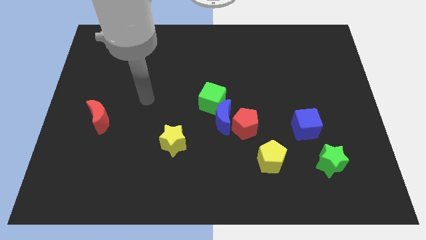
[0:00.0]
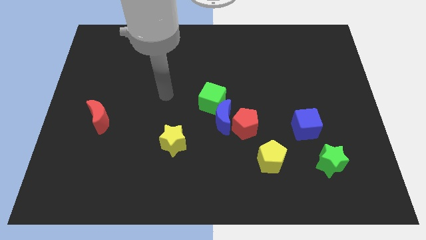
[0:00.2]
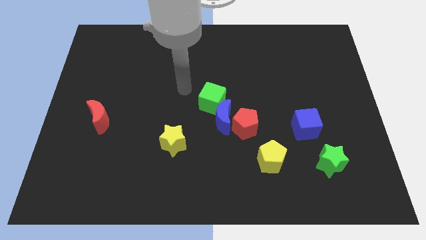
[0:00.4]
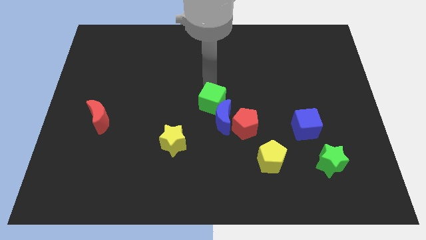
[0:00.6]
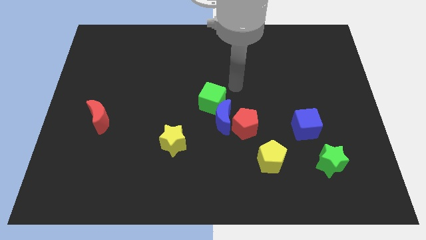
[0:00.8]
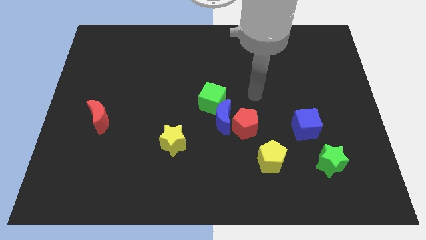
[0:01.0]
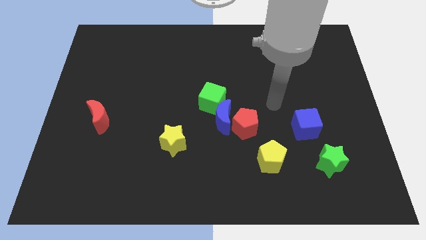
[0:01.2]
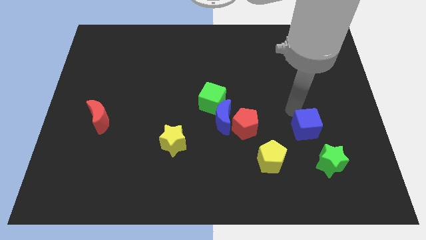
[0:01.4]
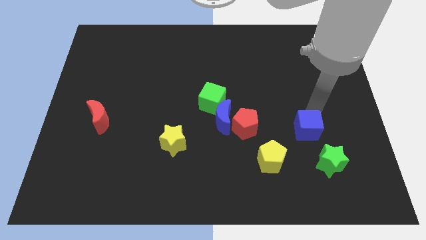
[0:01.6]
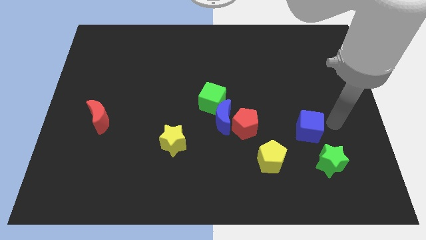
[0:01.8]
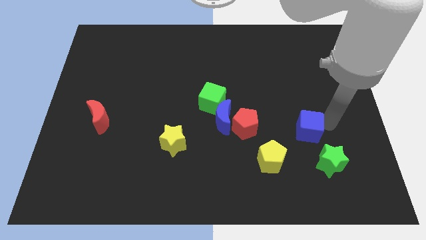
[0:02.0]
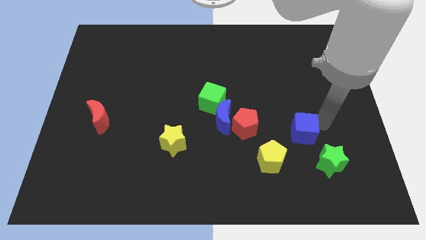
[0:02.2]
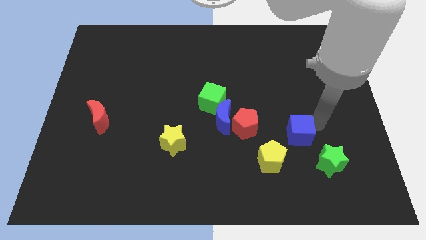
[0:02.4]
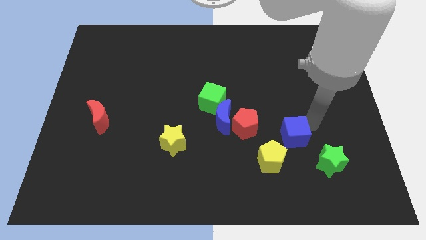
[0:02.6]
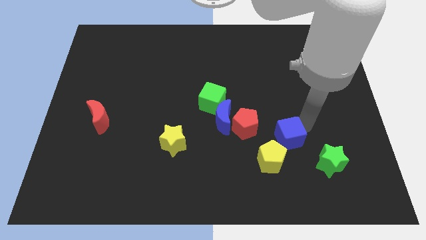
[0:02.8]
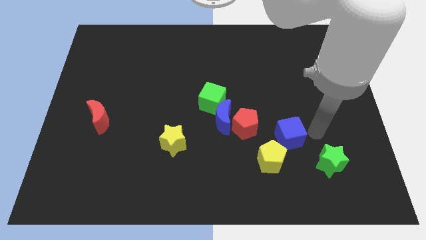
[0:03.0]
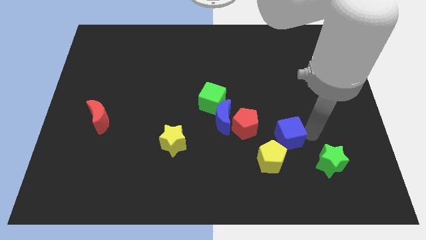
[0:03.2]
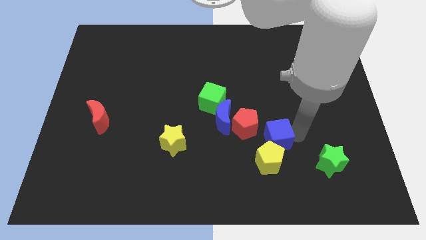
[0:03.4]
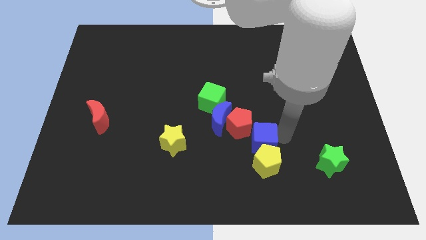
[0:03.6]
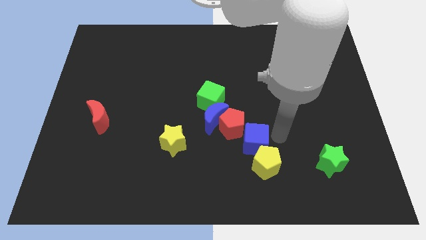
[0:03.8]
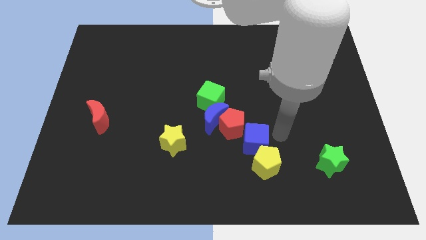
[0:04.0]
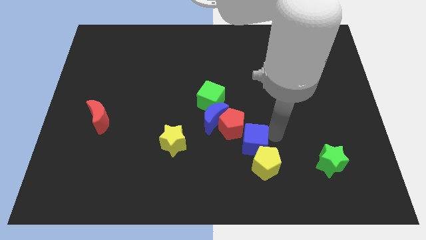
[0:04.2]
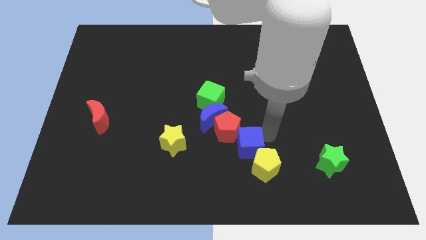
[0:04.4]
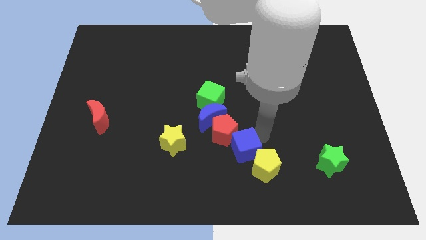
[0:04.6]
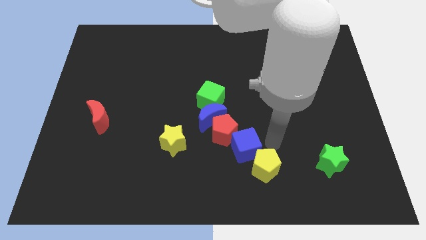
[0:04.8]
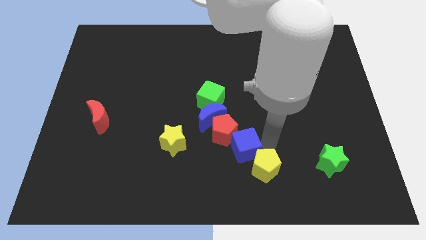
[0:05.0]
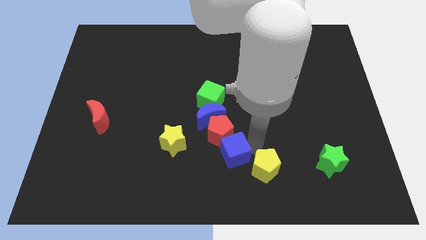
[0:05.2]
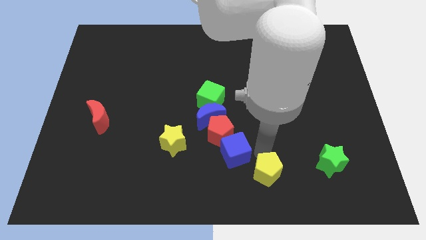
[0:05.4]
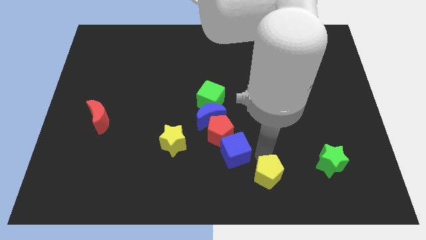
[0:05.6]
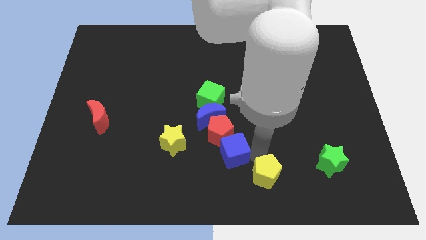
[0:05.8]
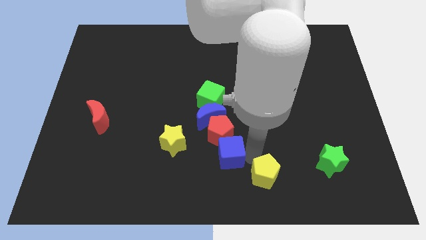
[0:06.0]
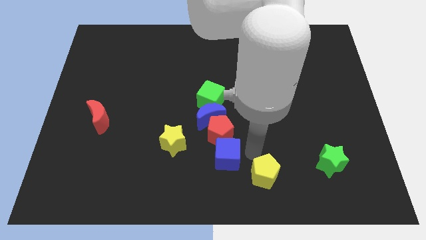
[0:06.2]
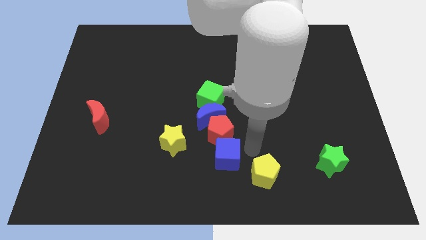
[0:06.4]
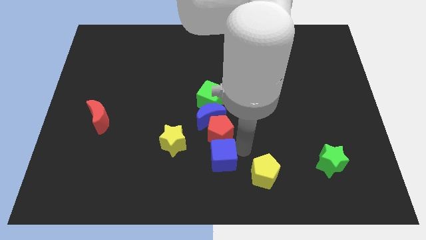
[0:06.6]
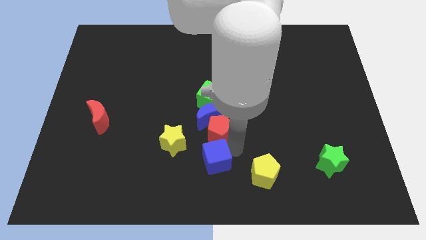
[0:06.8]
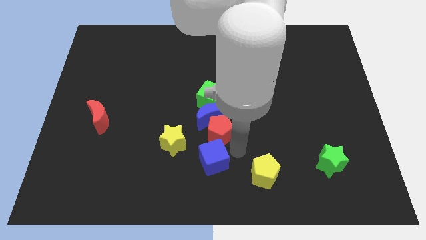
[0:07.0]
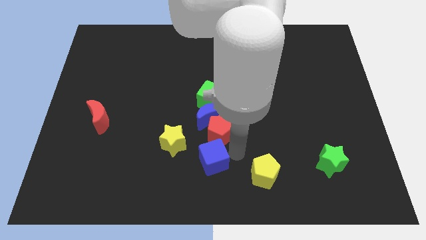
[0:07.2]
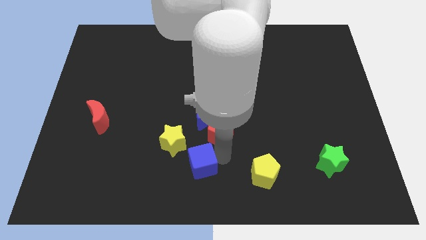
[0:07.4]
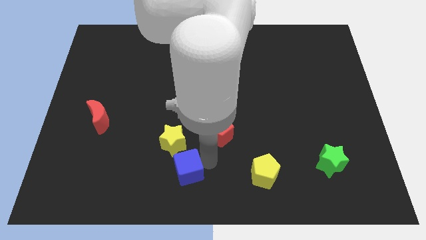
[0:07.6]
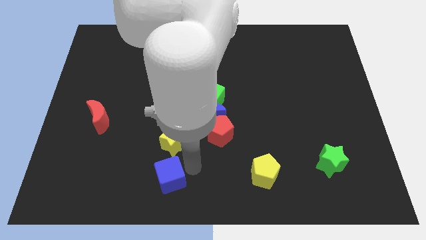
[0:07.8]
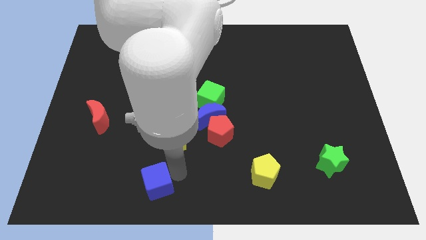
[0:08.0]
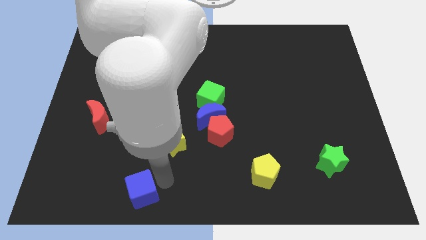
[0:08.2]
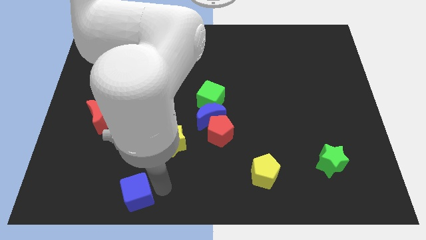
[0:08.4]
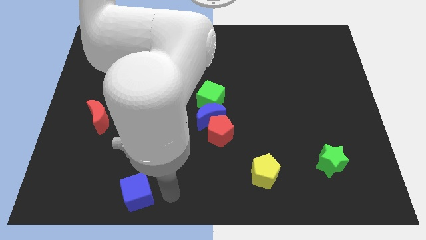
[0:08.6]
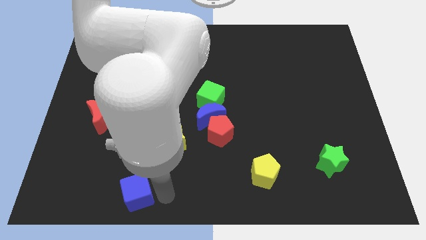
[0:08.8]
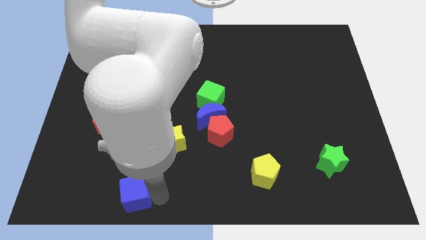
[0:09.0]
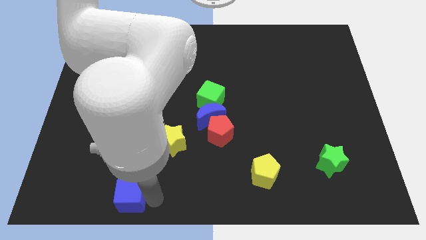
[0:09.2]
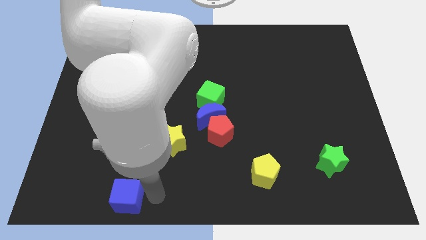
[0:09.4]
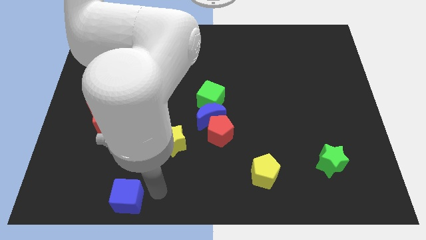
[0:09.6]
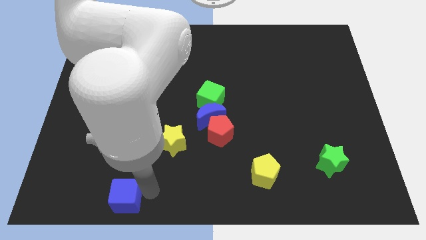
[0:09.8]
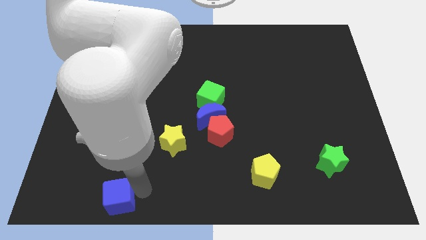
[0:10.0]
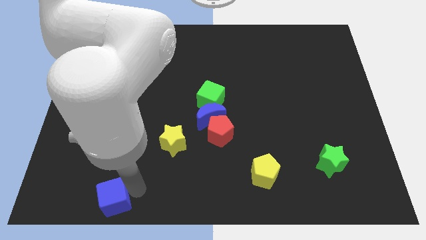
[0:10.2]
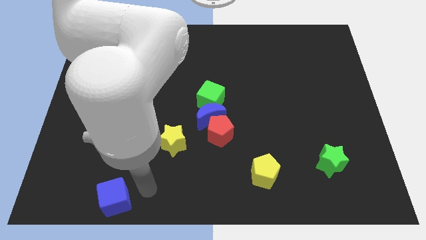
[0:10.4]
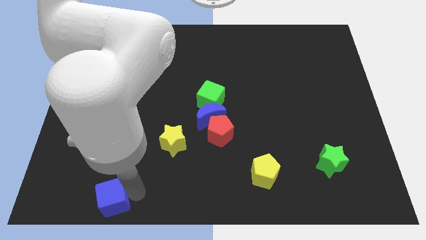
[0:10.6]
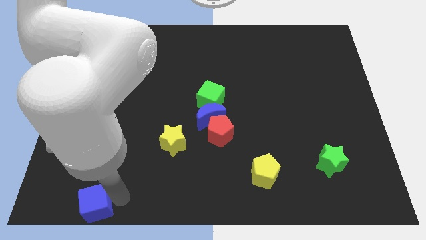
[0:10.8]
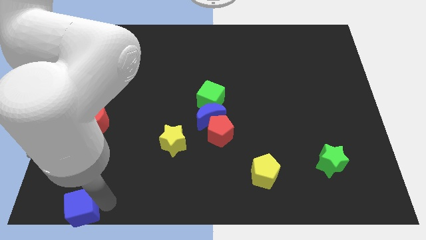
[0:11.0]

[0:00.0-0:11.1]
slide the blue cube to the lower left corner

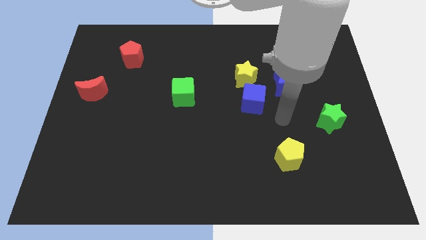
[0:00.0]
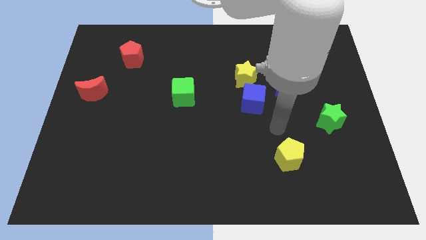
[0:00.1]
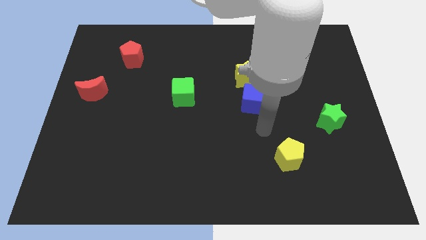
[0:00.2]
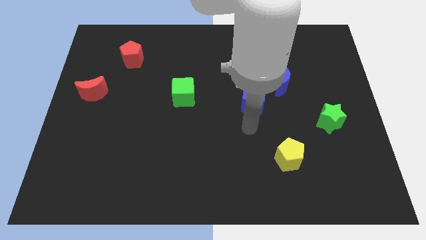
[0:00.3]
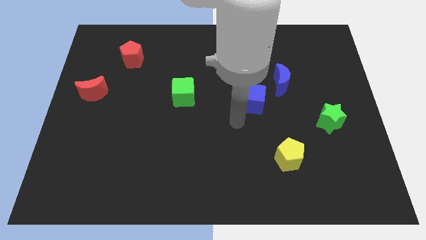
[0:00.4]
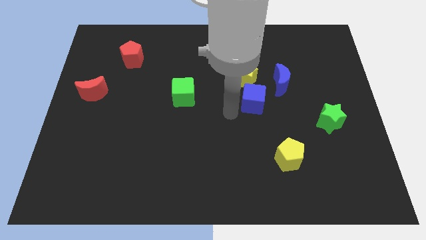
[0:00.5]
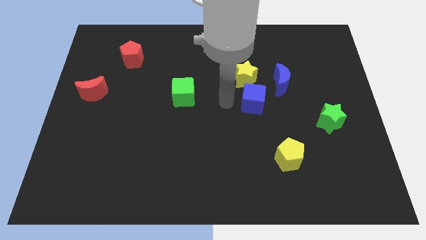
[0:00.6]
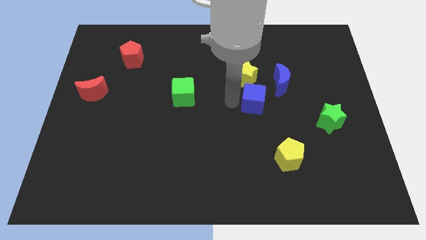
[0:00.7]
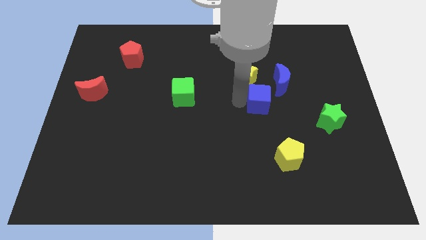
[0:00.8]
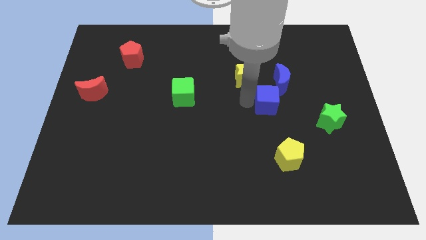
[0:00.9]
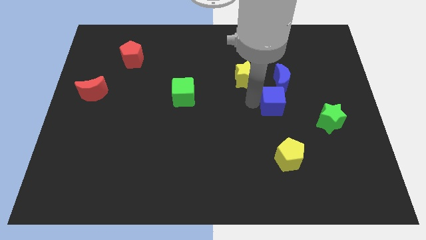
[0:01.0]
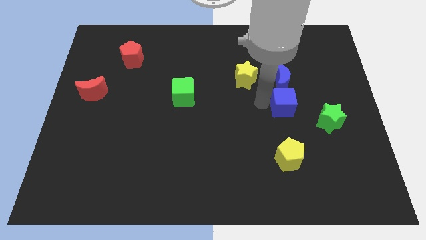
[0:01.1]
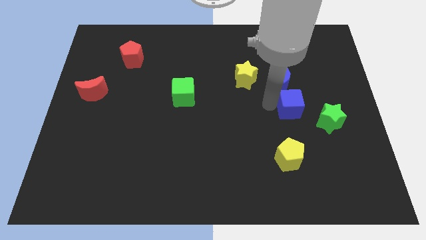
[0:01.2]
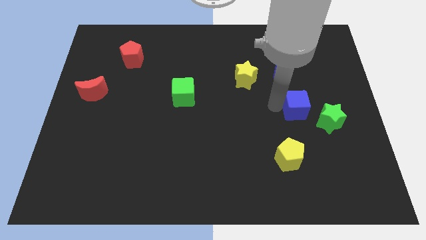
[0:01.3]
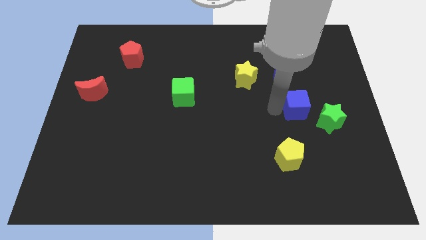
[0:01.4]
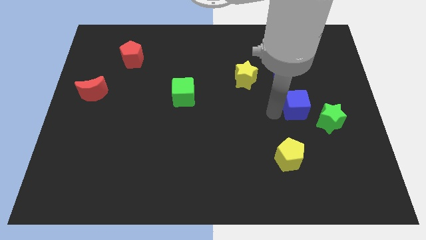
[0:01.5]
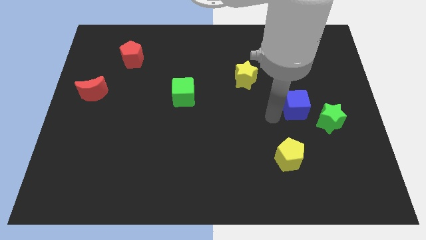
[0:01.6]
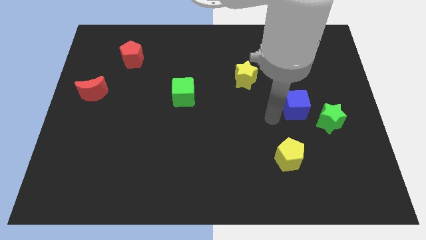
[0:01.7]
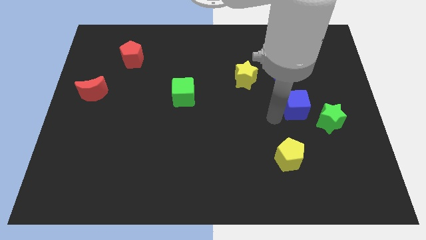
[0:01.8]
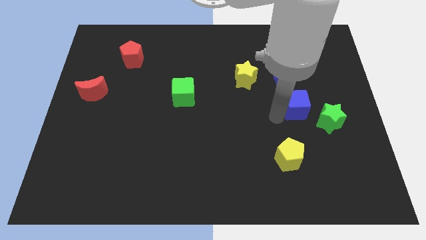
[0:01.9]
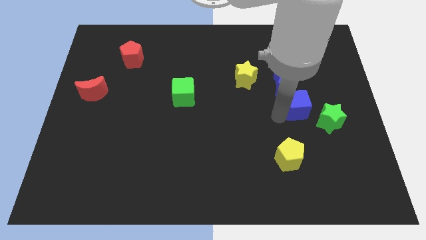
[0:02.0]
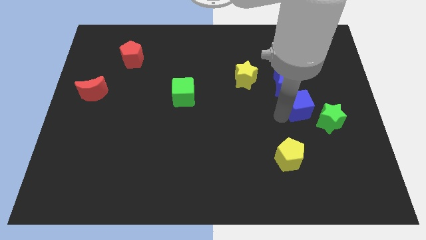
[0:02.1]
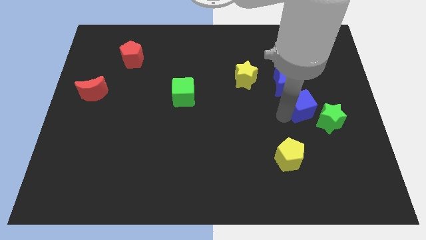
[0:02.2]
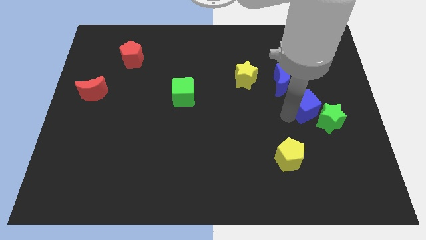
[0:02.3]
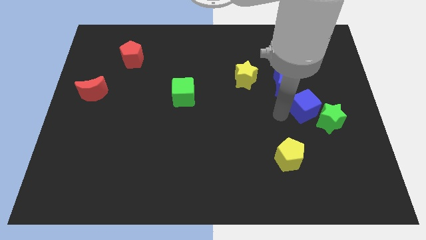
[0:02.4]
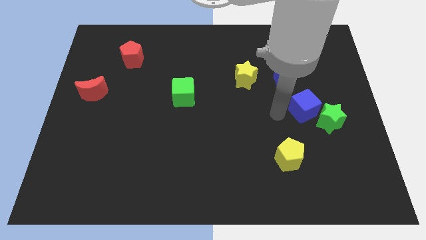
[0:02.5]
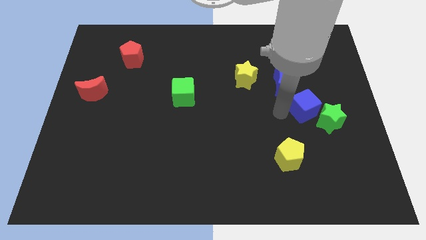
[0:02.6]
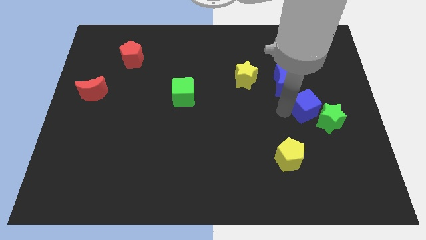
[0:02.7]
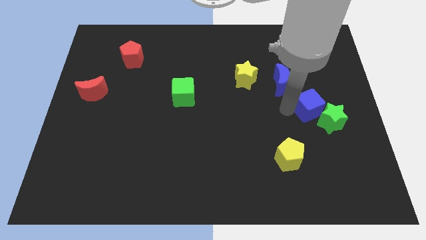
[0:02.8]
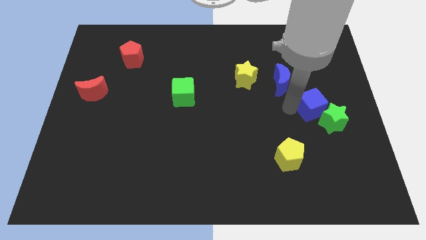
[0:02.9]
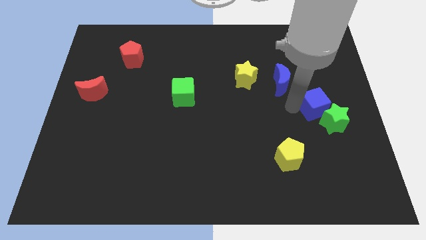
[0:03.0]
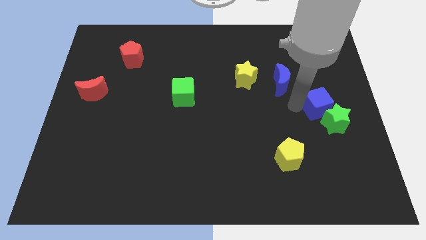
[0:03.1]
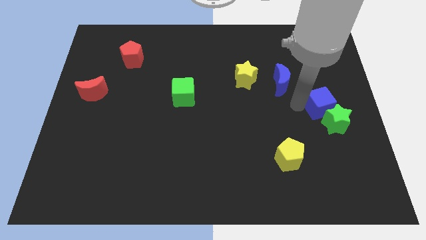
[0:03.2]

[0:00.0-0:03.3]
slide the blue cube to the center right
